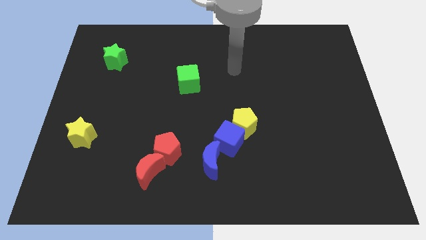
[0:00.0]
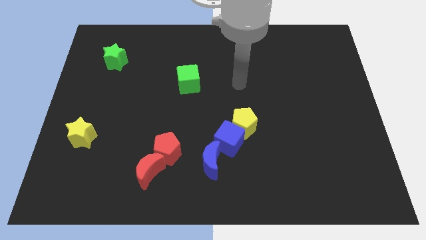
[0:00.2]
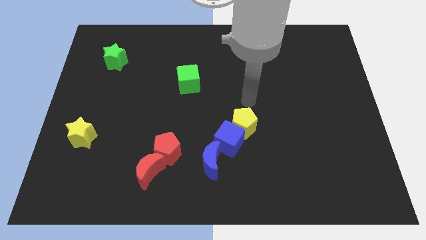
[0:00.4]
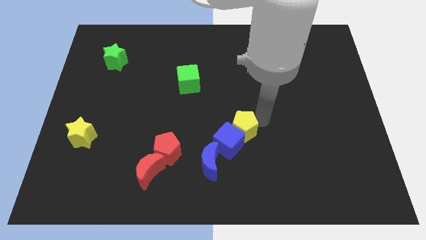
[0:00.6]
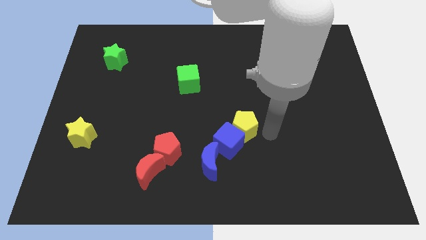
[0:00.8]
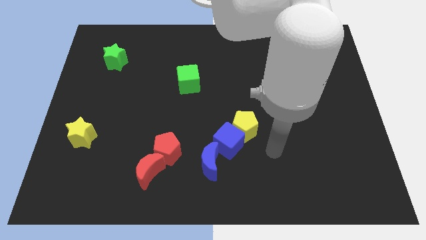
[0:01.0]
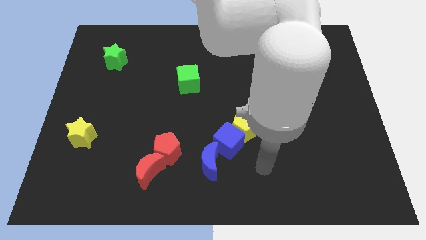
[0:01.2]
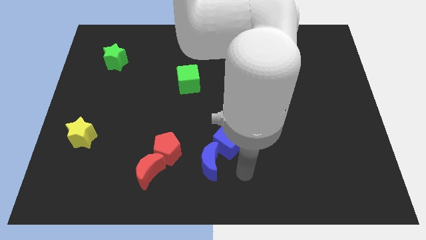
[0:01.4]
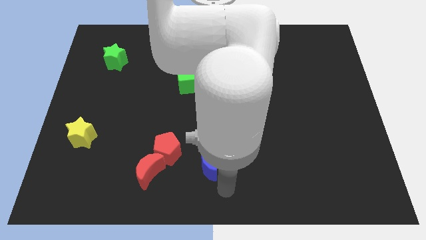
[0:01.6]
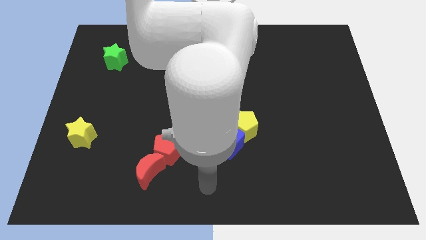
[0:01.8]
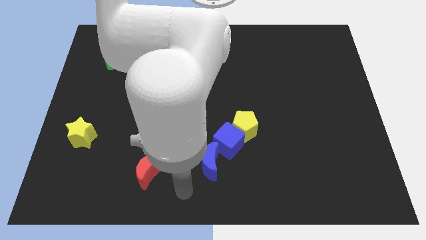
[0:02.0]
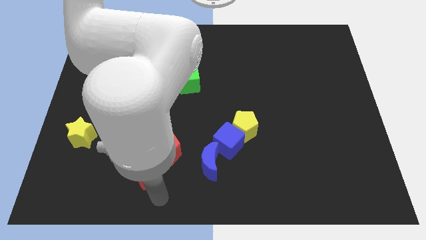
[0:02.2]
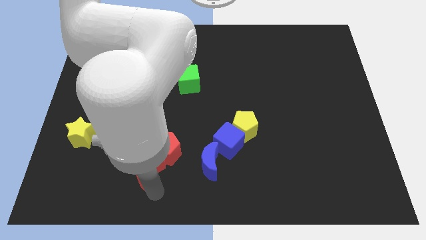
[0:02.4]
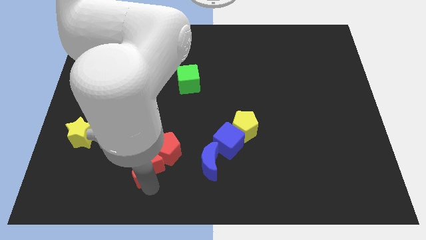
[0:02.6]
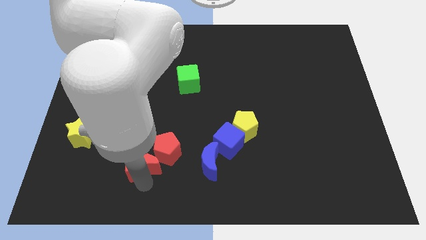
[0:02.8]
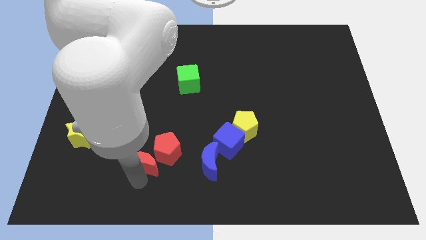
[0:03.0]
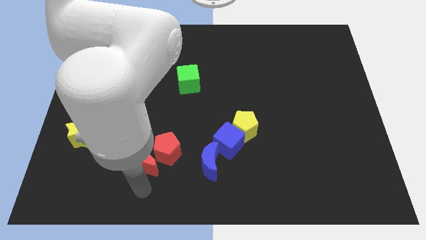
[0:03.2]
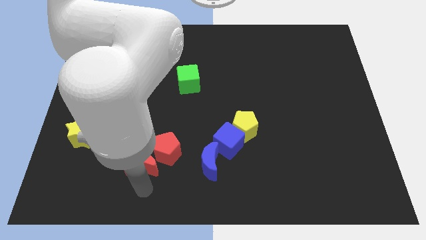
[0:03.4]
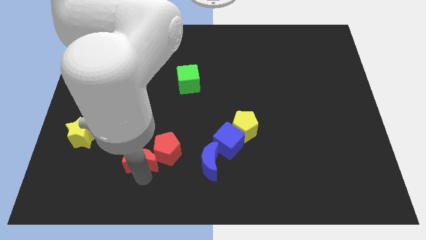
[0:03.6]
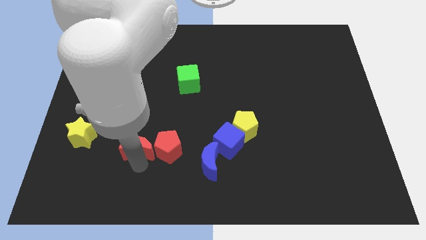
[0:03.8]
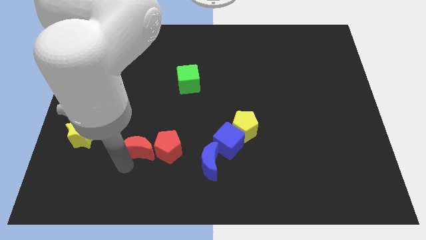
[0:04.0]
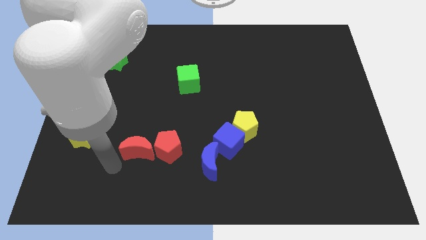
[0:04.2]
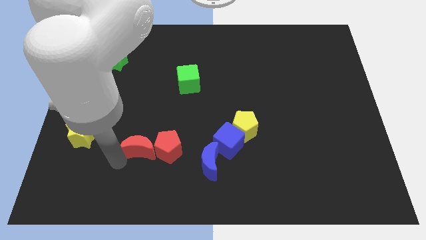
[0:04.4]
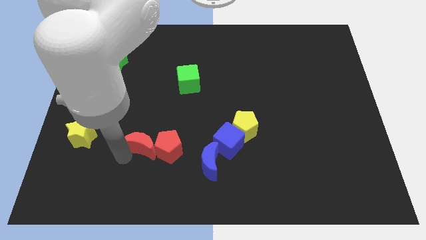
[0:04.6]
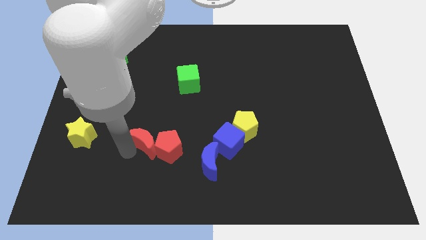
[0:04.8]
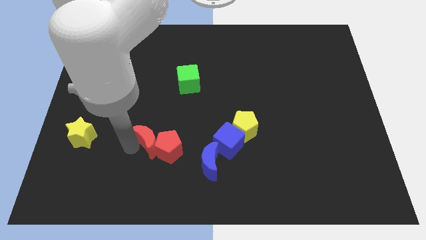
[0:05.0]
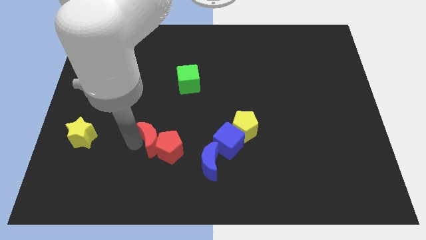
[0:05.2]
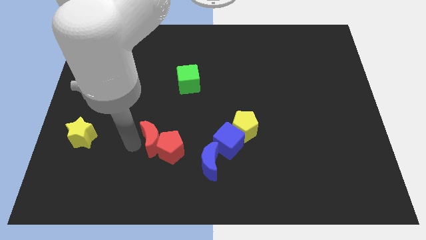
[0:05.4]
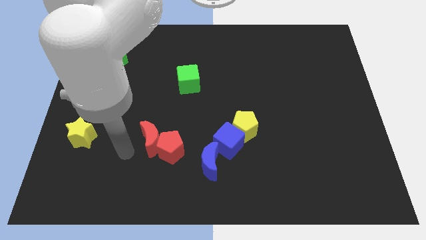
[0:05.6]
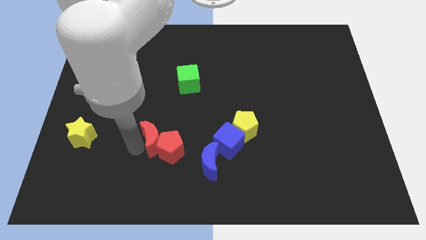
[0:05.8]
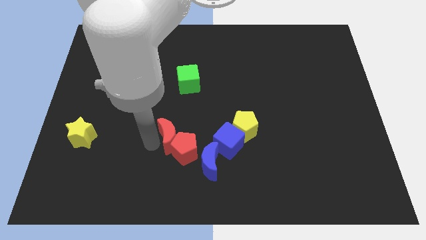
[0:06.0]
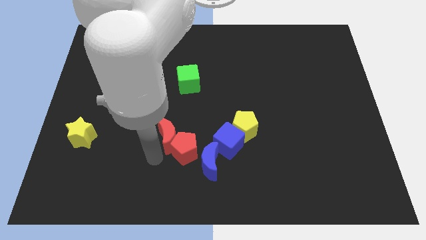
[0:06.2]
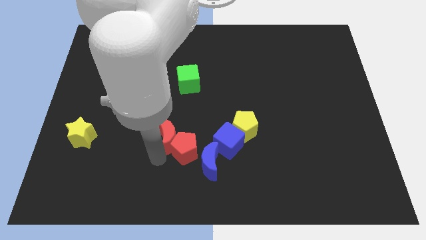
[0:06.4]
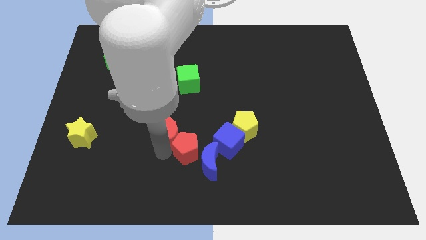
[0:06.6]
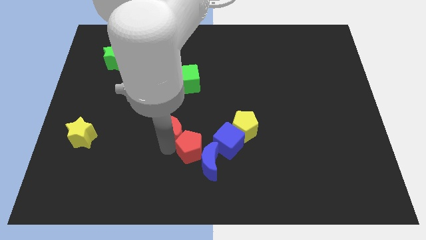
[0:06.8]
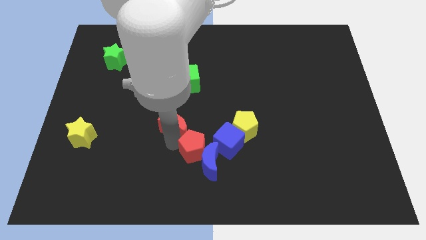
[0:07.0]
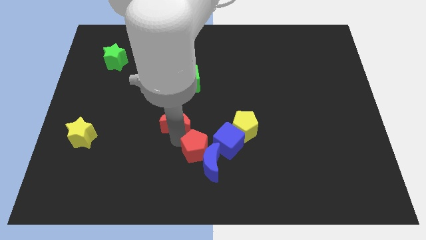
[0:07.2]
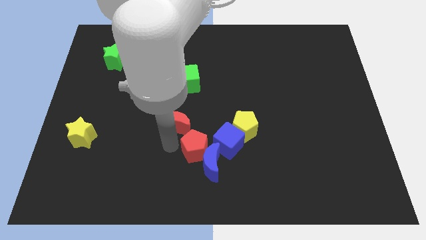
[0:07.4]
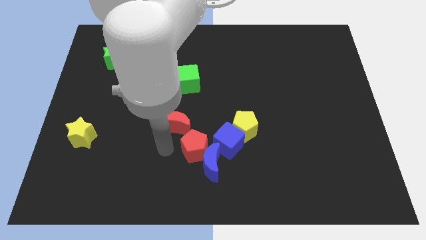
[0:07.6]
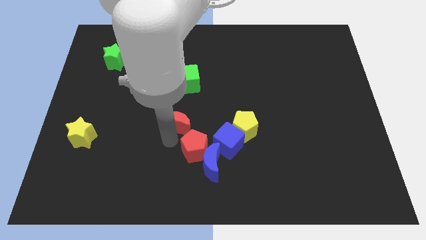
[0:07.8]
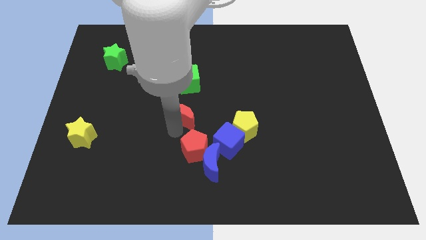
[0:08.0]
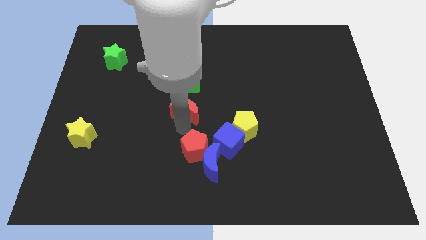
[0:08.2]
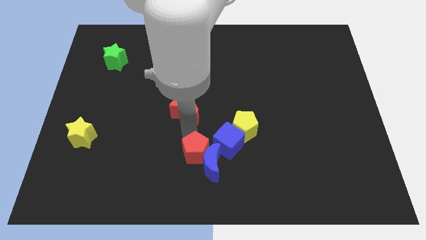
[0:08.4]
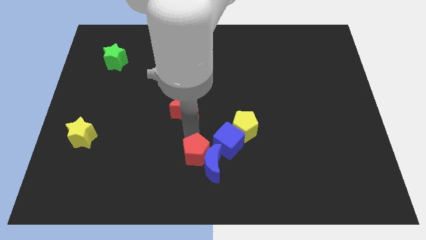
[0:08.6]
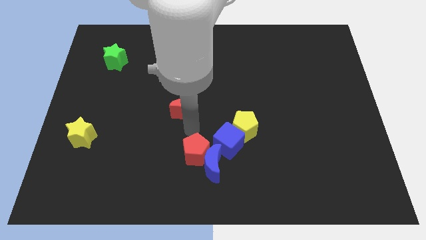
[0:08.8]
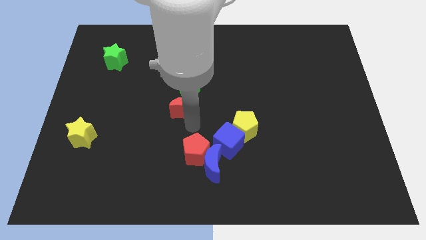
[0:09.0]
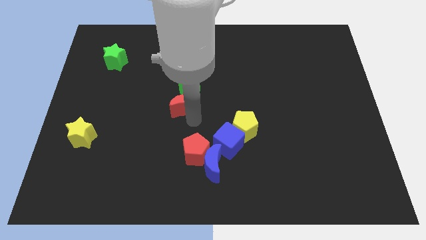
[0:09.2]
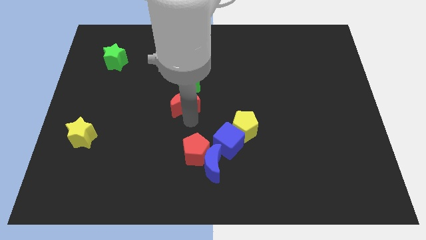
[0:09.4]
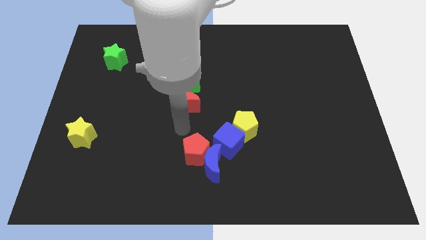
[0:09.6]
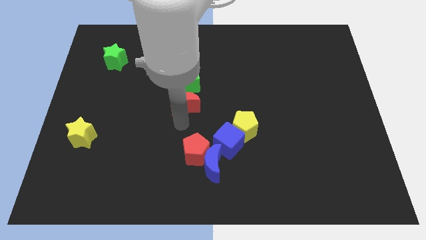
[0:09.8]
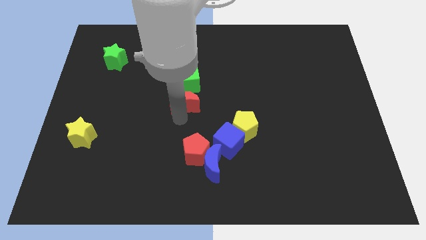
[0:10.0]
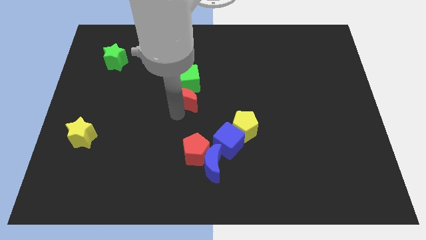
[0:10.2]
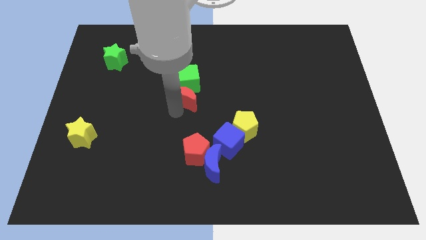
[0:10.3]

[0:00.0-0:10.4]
slide the red moon next to the green cube

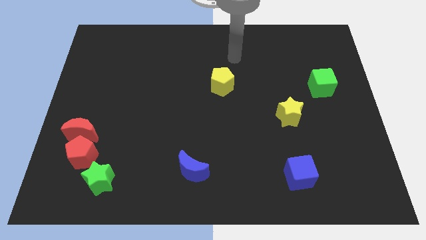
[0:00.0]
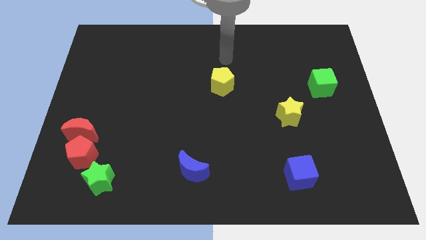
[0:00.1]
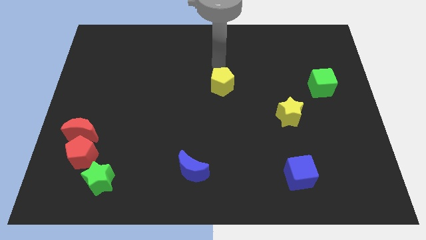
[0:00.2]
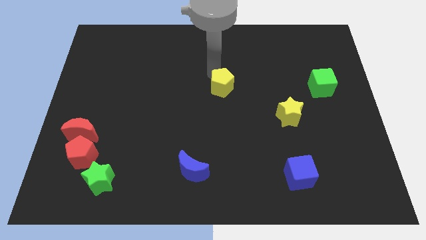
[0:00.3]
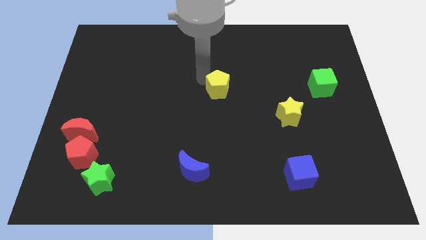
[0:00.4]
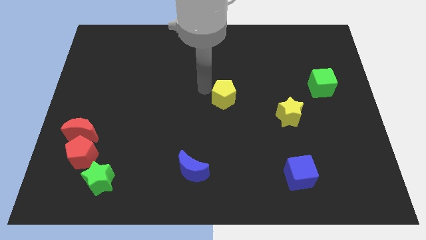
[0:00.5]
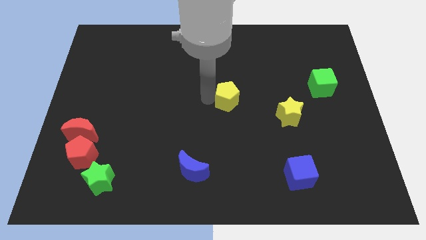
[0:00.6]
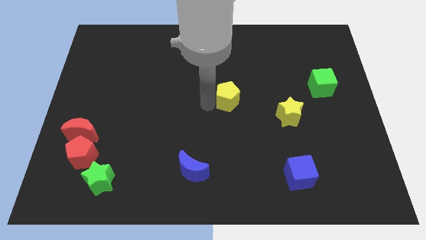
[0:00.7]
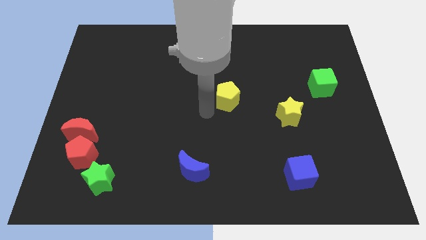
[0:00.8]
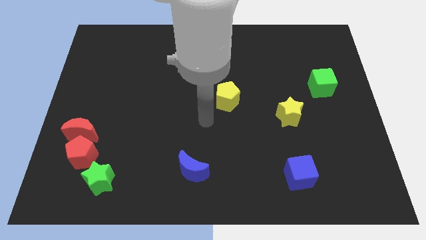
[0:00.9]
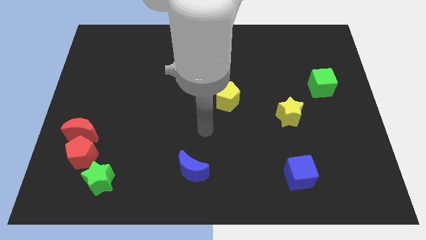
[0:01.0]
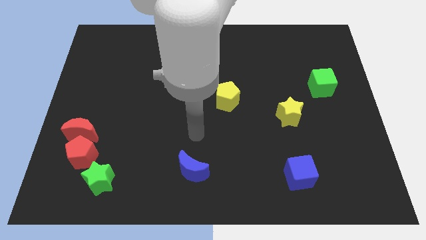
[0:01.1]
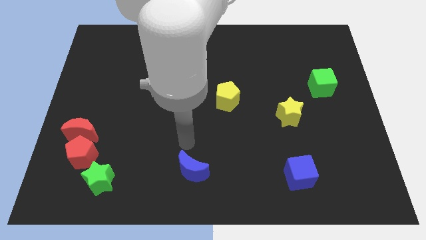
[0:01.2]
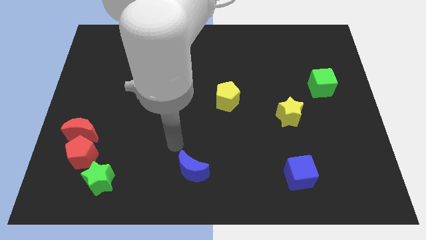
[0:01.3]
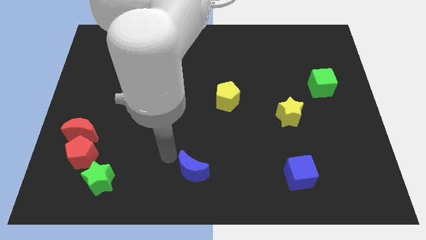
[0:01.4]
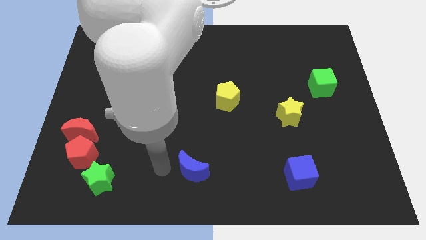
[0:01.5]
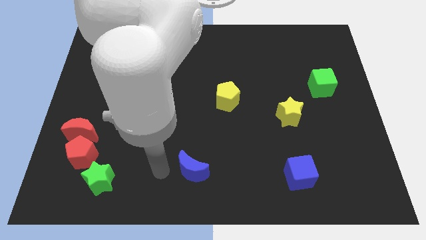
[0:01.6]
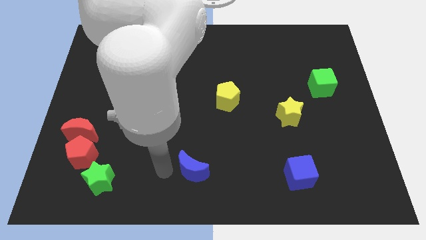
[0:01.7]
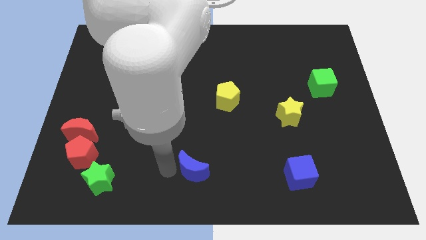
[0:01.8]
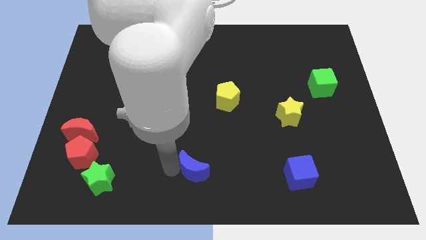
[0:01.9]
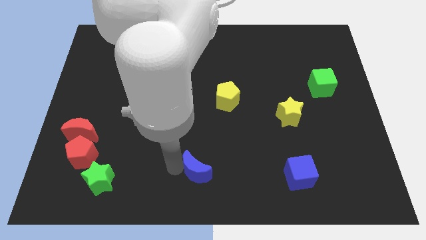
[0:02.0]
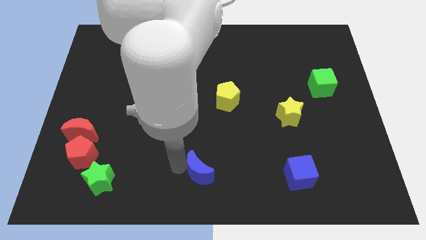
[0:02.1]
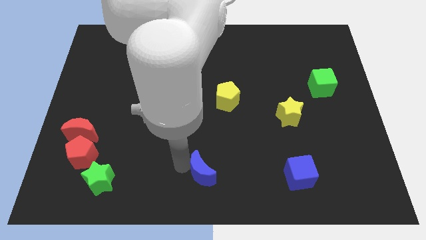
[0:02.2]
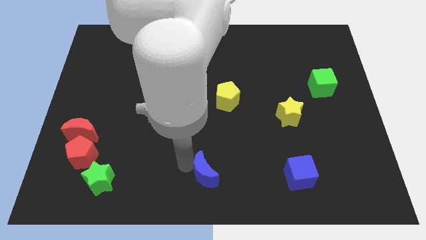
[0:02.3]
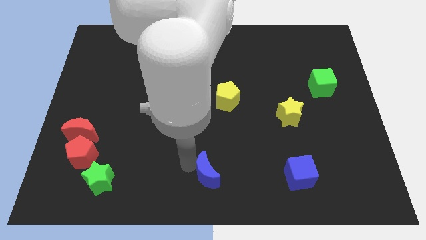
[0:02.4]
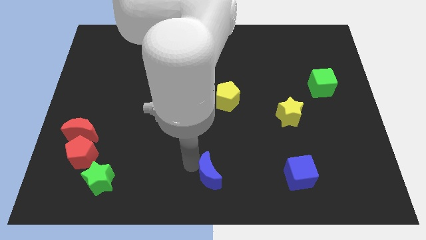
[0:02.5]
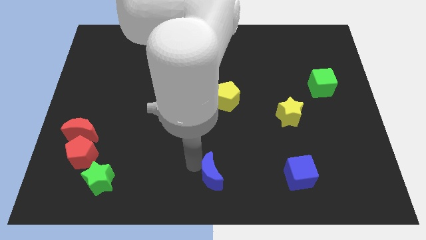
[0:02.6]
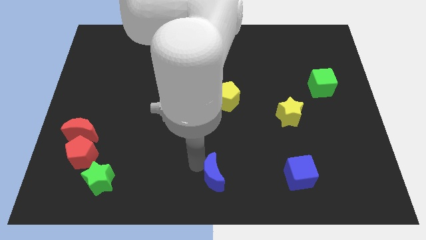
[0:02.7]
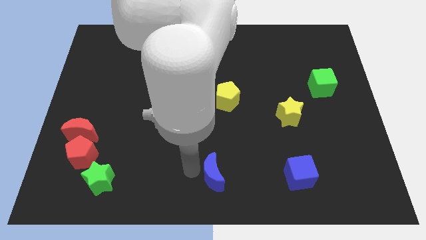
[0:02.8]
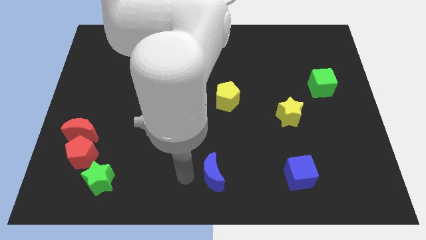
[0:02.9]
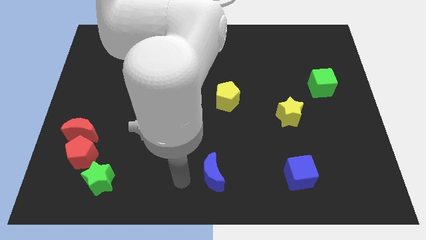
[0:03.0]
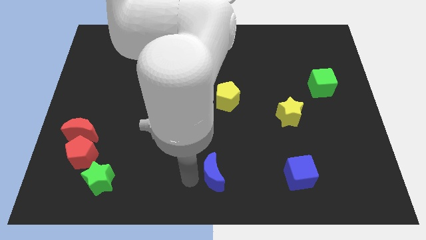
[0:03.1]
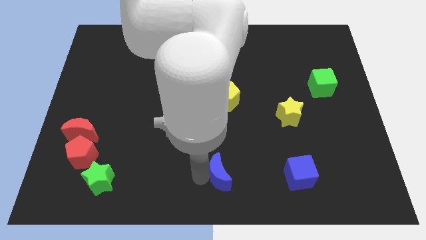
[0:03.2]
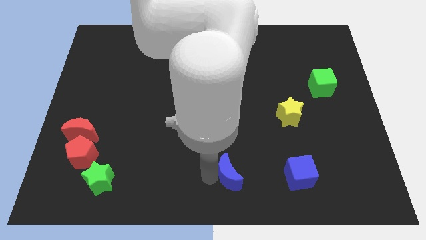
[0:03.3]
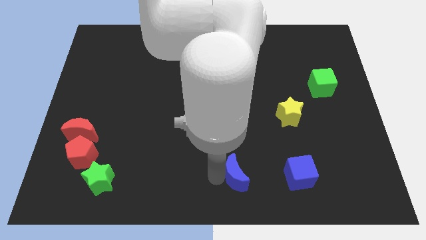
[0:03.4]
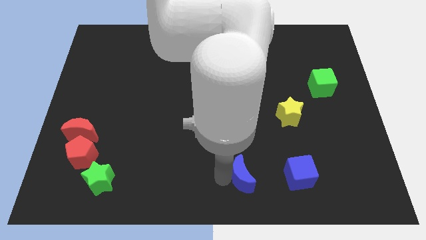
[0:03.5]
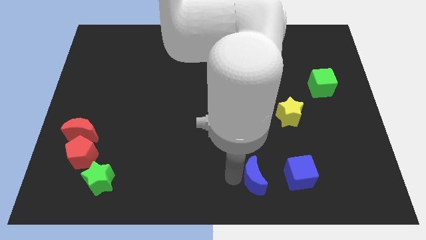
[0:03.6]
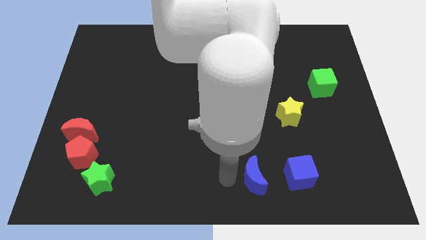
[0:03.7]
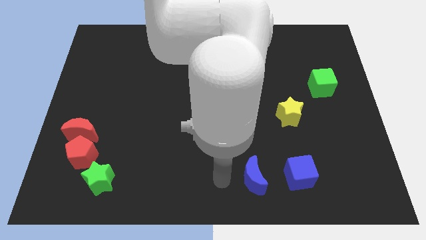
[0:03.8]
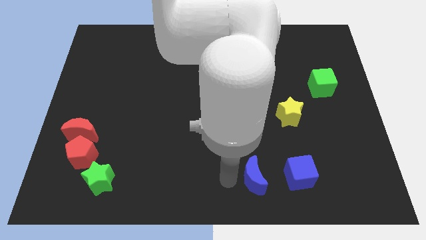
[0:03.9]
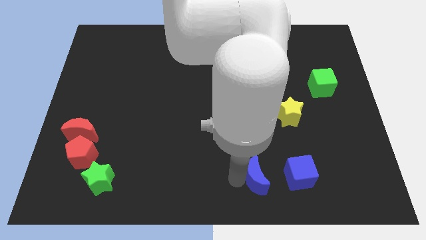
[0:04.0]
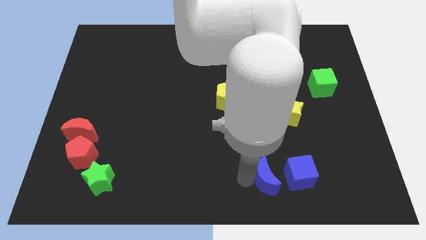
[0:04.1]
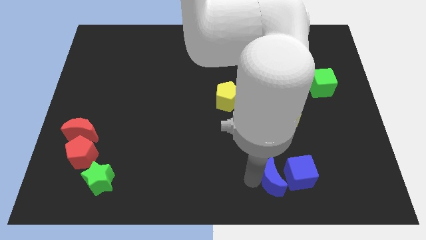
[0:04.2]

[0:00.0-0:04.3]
push the blue moon towards the blue cube
